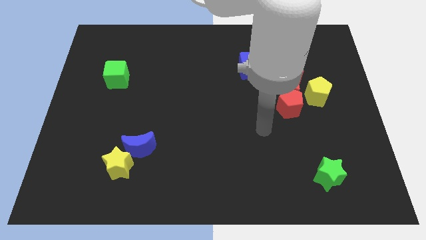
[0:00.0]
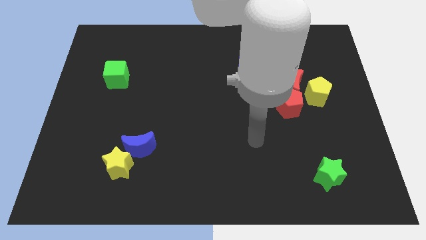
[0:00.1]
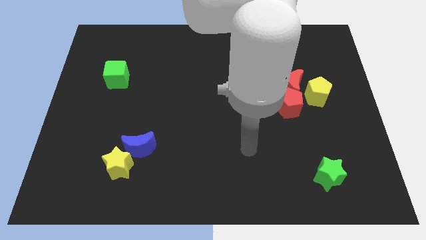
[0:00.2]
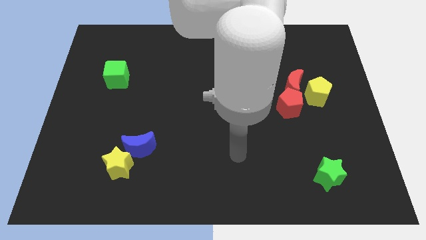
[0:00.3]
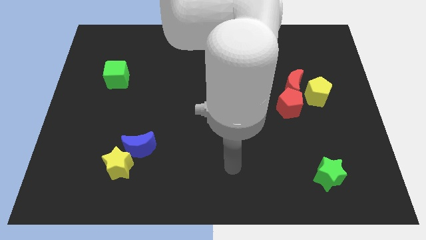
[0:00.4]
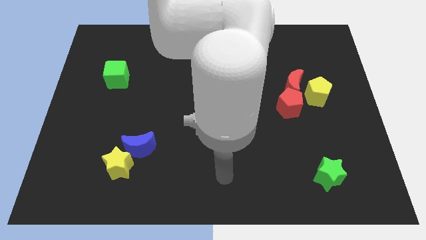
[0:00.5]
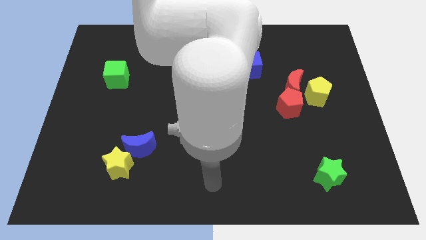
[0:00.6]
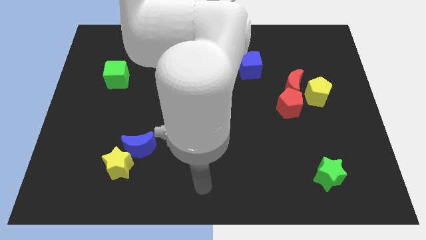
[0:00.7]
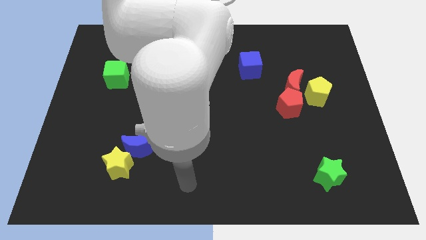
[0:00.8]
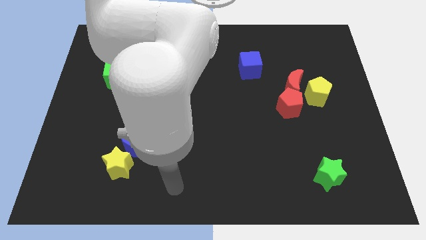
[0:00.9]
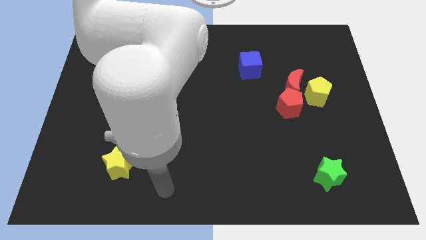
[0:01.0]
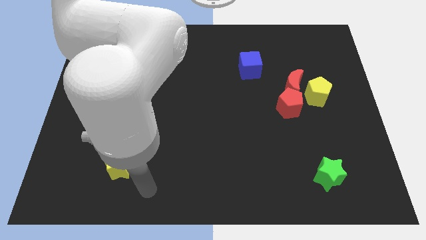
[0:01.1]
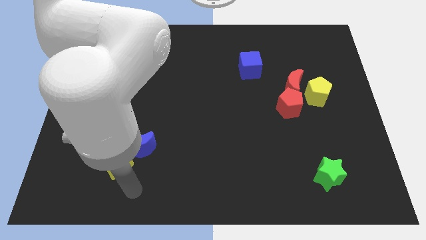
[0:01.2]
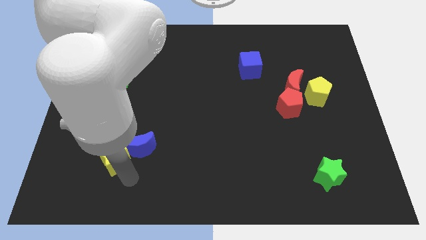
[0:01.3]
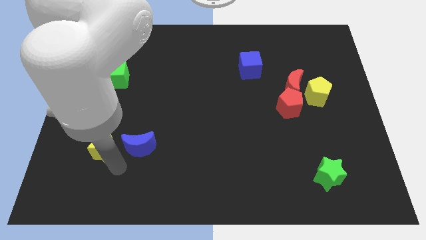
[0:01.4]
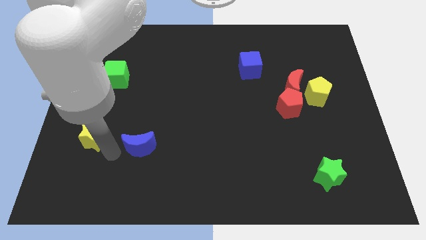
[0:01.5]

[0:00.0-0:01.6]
pull the blue moon apart from the yellow star

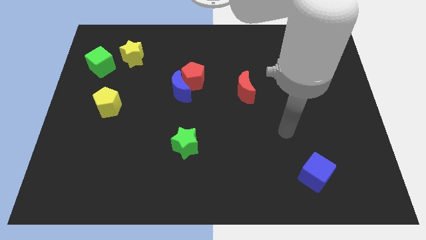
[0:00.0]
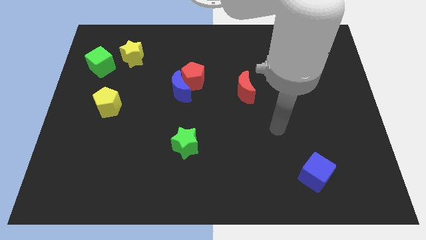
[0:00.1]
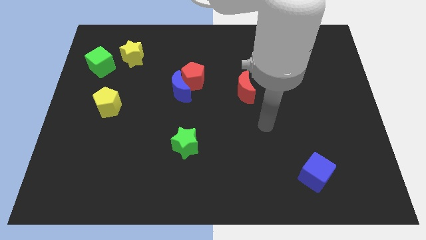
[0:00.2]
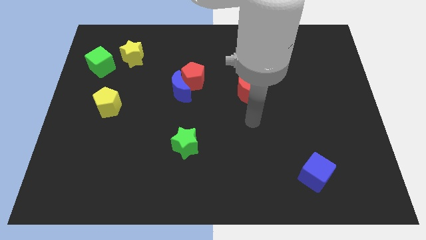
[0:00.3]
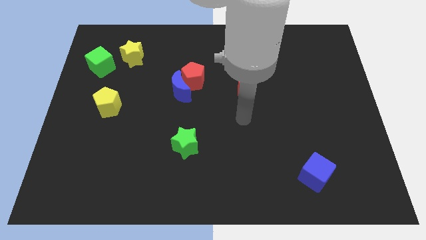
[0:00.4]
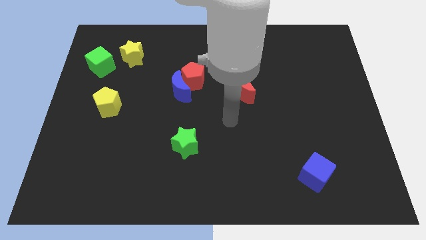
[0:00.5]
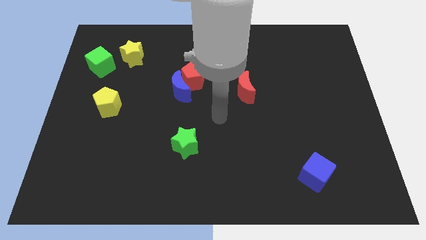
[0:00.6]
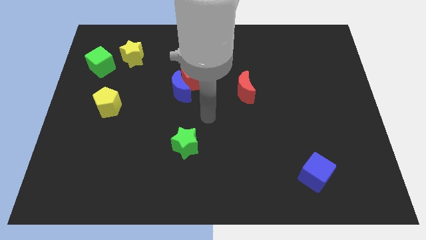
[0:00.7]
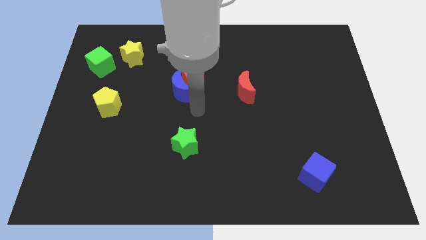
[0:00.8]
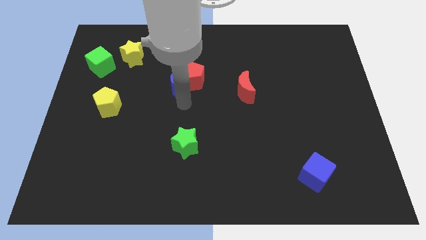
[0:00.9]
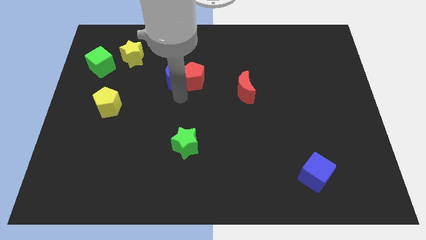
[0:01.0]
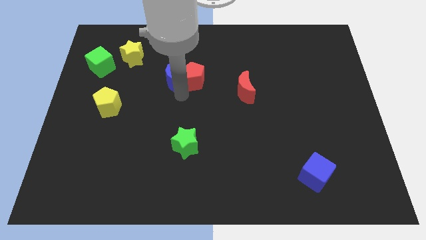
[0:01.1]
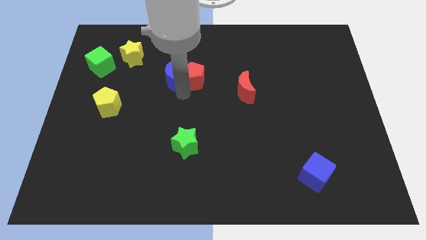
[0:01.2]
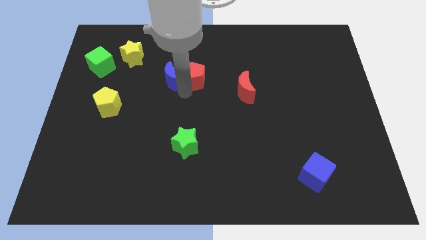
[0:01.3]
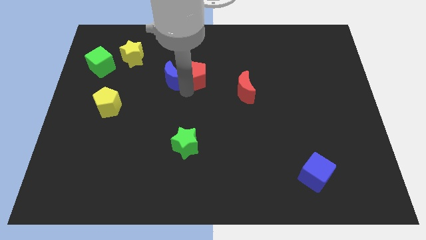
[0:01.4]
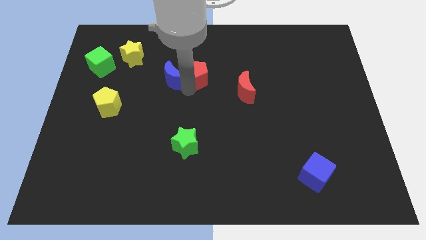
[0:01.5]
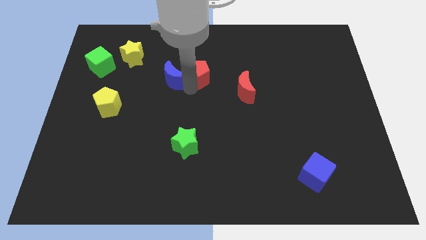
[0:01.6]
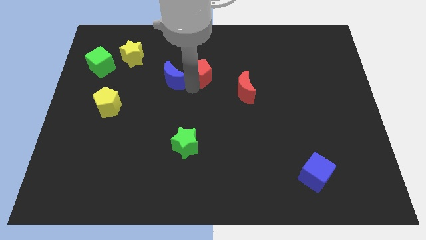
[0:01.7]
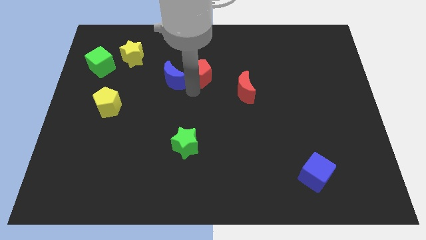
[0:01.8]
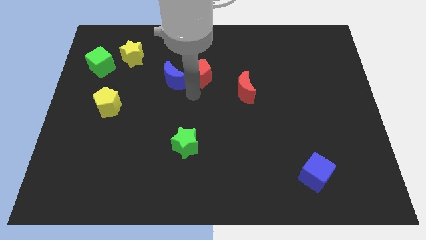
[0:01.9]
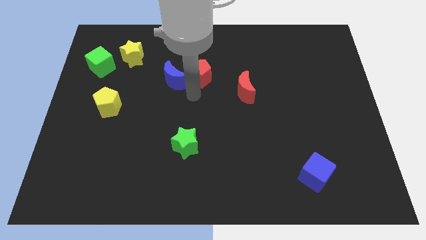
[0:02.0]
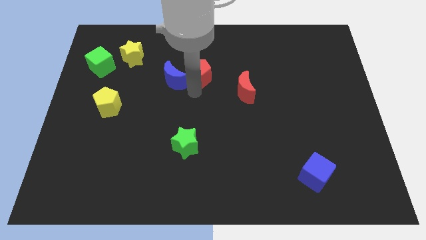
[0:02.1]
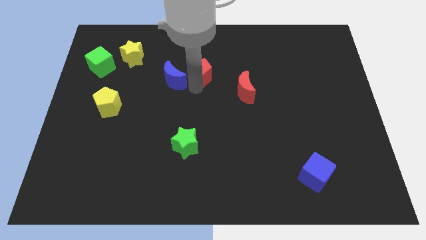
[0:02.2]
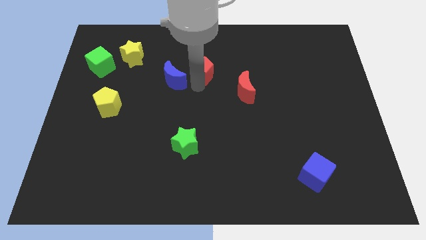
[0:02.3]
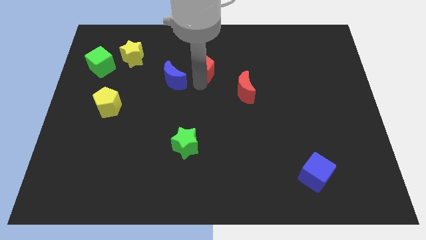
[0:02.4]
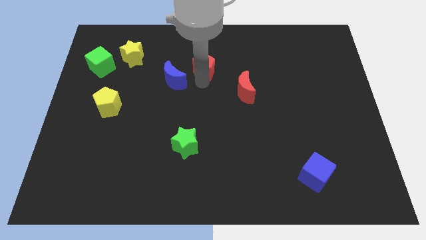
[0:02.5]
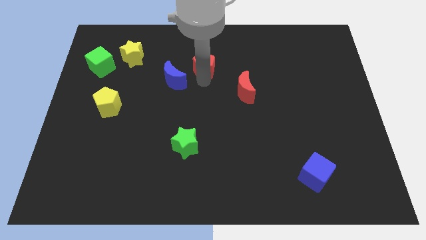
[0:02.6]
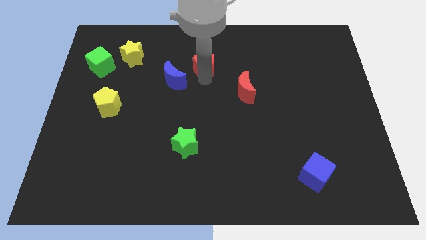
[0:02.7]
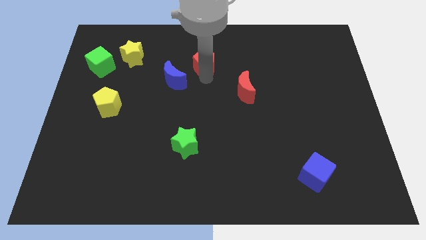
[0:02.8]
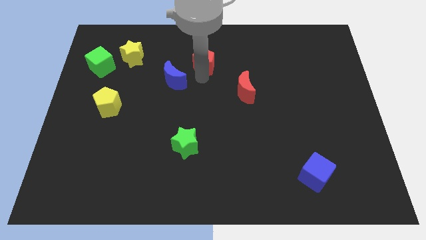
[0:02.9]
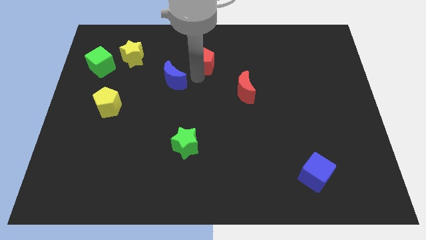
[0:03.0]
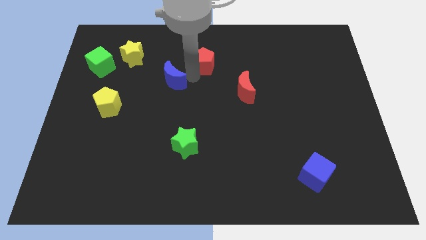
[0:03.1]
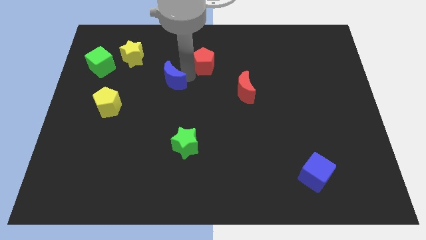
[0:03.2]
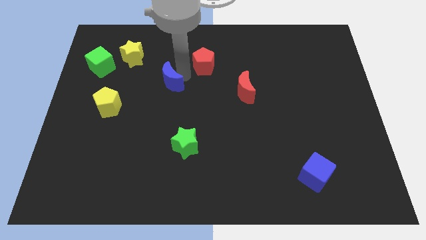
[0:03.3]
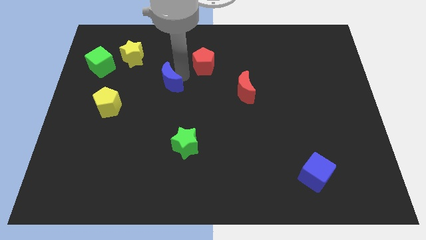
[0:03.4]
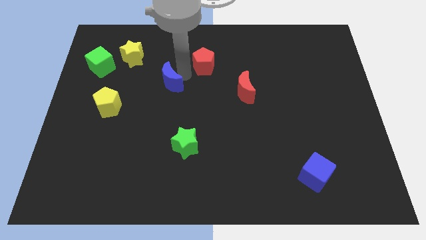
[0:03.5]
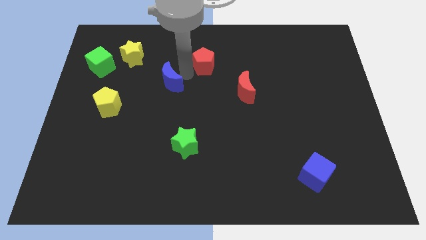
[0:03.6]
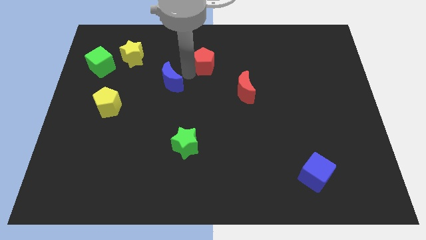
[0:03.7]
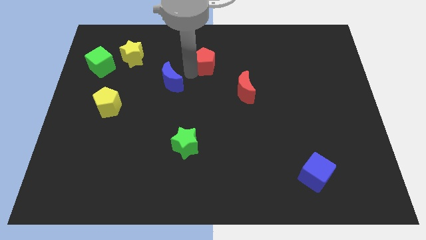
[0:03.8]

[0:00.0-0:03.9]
separate the red pentagon from the blue moon

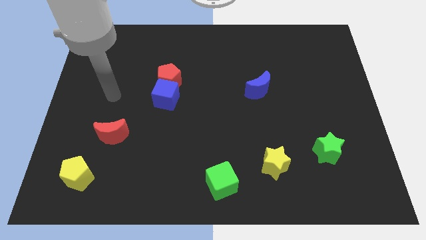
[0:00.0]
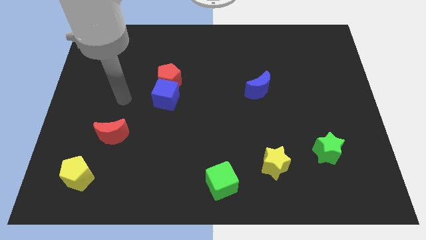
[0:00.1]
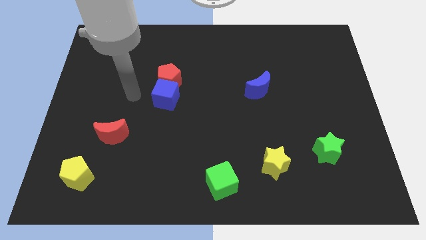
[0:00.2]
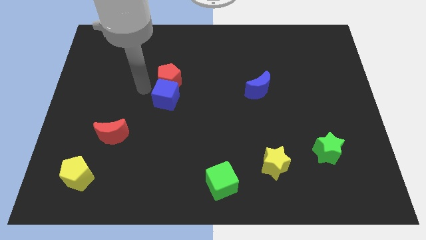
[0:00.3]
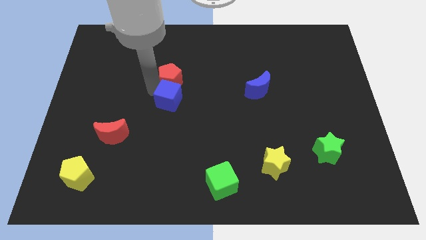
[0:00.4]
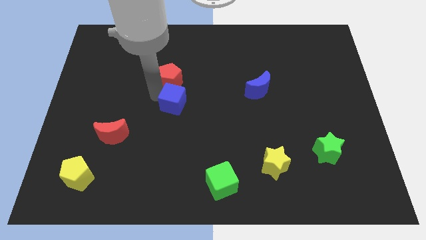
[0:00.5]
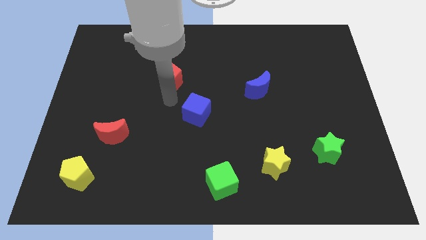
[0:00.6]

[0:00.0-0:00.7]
move the red pentagon away from the blue cube

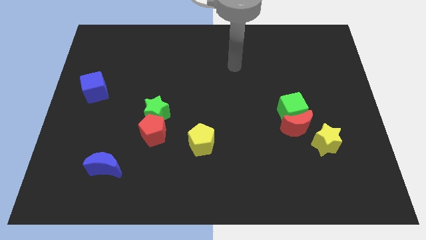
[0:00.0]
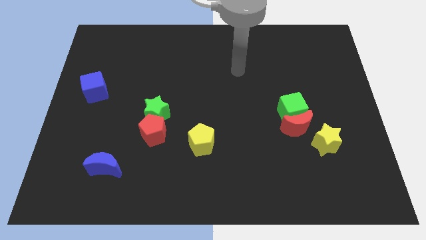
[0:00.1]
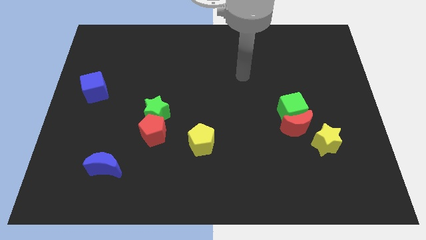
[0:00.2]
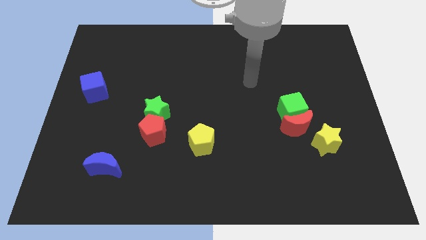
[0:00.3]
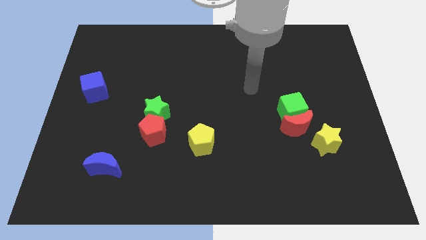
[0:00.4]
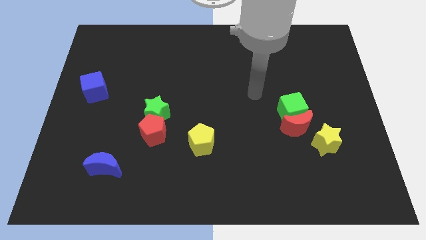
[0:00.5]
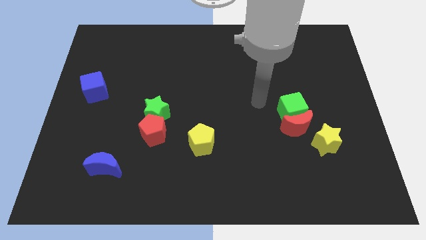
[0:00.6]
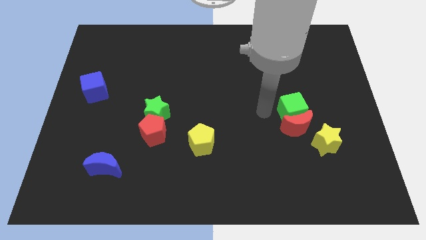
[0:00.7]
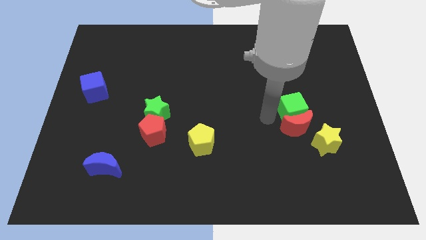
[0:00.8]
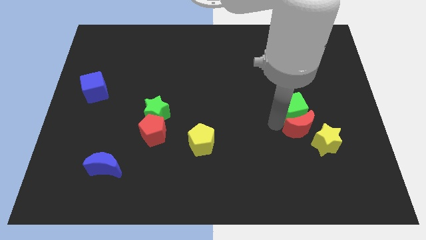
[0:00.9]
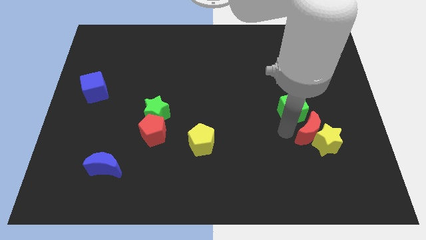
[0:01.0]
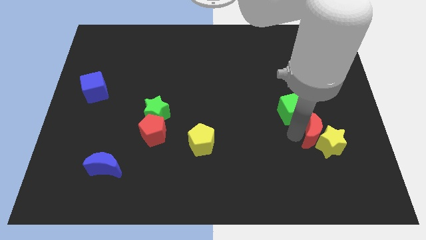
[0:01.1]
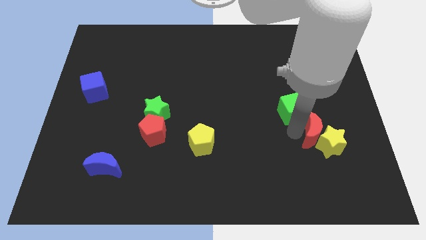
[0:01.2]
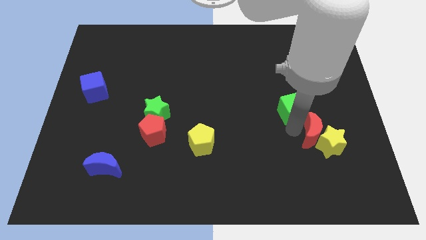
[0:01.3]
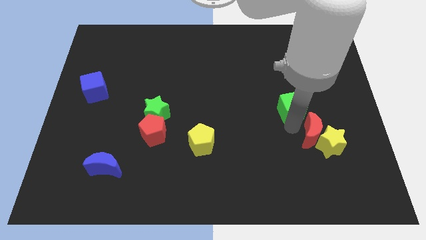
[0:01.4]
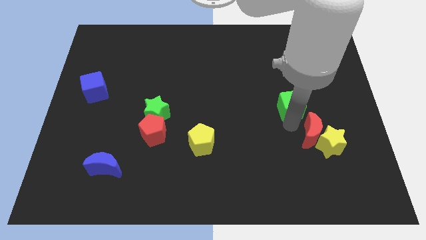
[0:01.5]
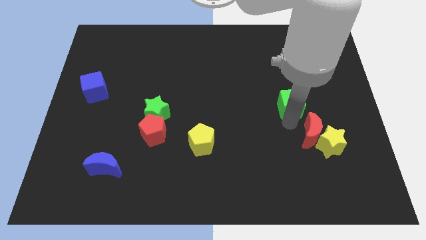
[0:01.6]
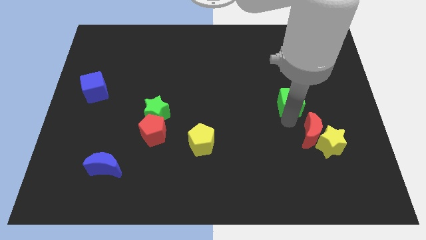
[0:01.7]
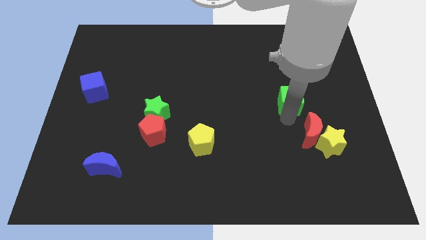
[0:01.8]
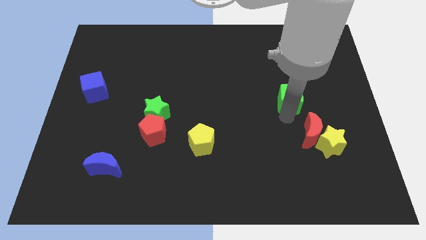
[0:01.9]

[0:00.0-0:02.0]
separate the green cube from the red moon

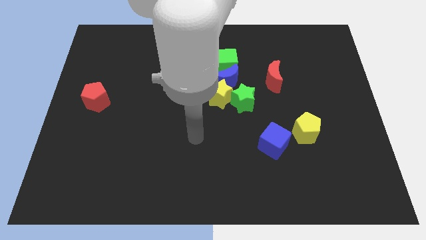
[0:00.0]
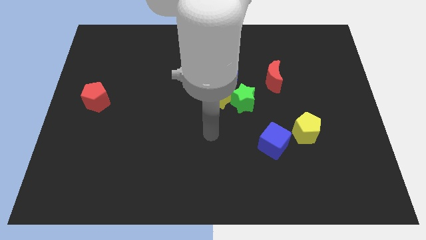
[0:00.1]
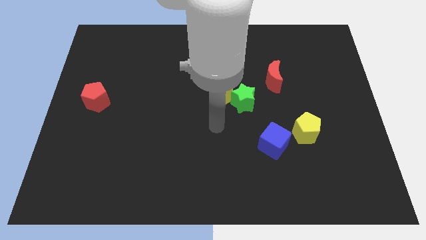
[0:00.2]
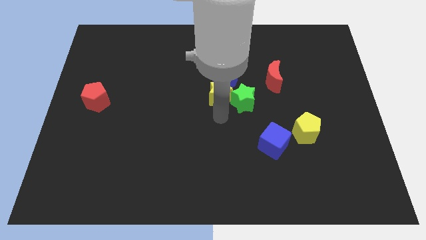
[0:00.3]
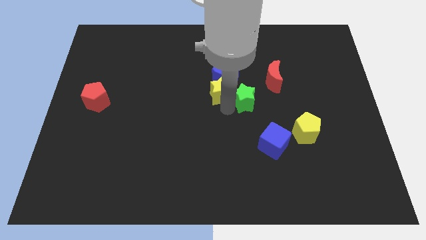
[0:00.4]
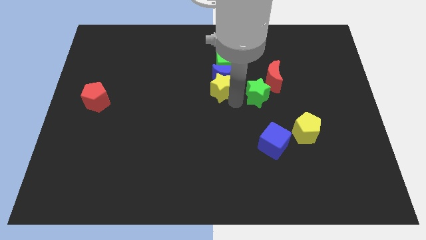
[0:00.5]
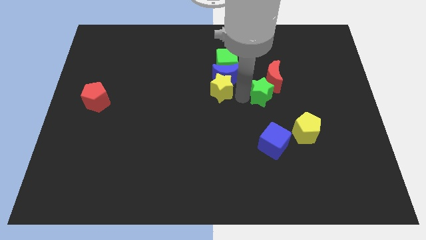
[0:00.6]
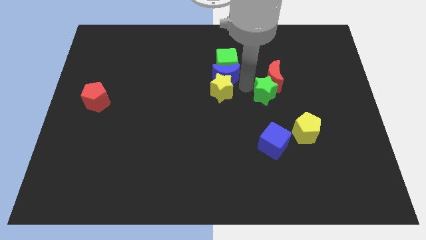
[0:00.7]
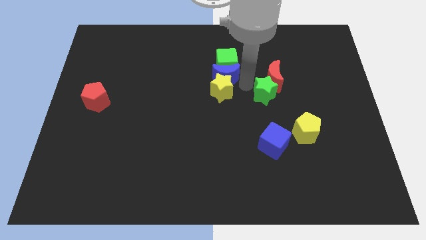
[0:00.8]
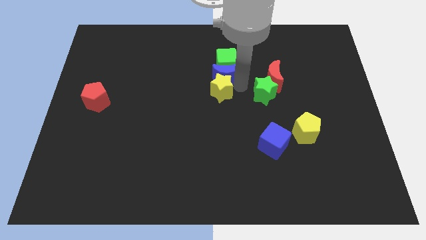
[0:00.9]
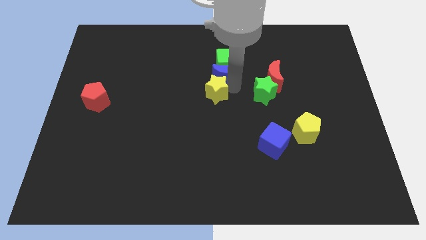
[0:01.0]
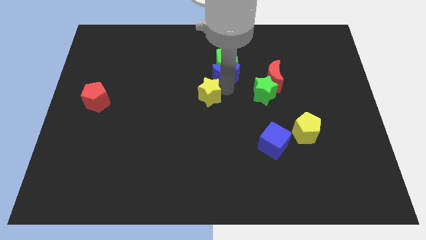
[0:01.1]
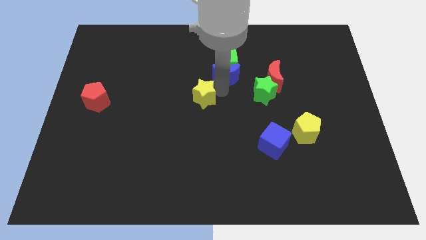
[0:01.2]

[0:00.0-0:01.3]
move the yellow star away from the blue moon and green star
